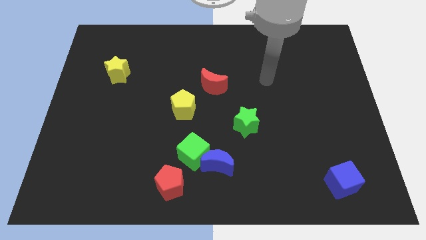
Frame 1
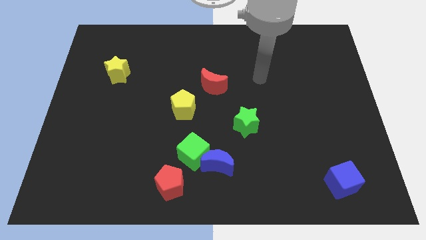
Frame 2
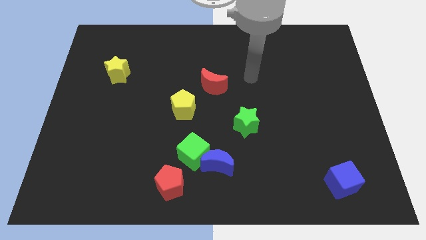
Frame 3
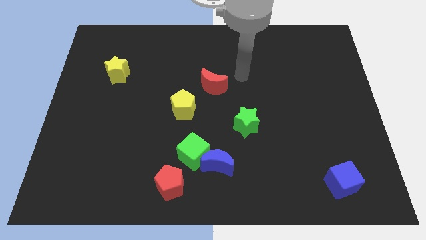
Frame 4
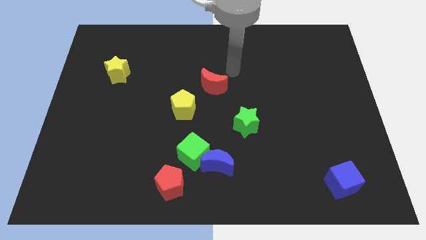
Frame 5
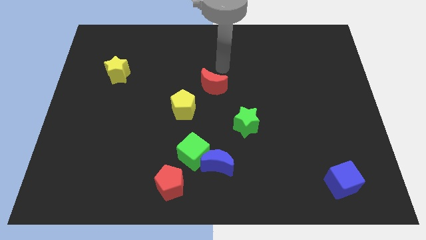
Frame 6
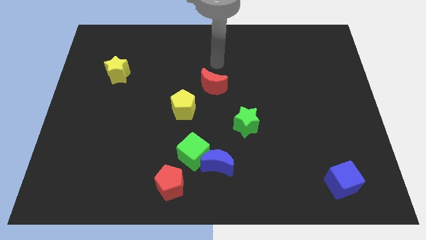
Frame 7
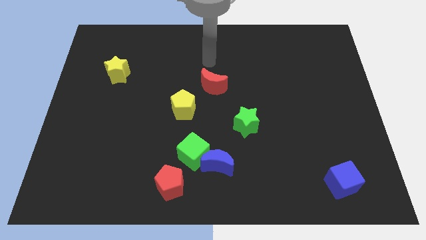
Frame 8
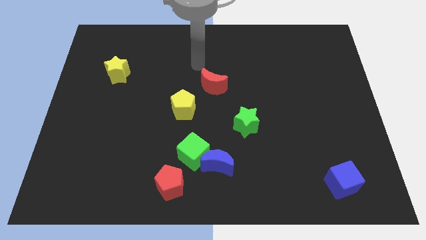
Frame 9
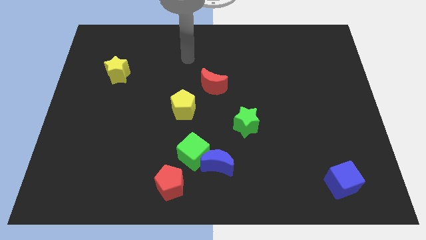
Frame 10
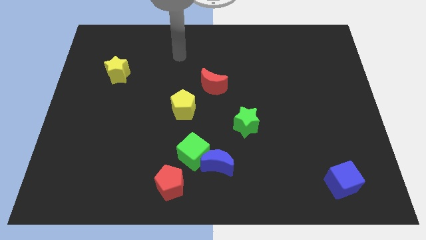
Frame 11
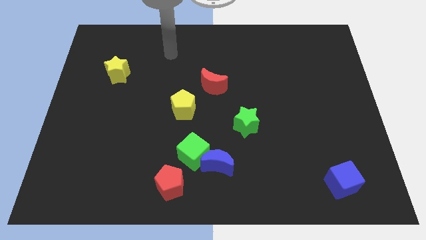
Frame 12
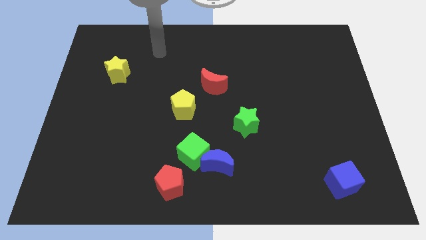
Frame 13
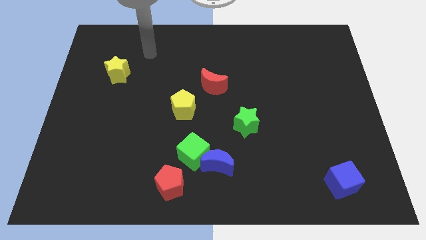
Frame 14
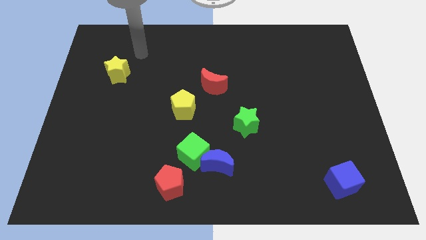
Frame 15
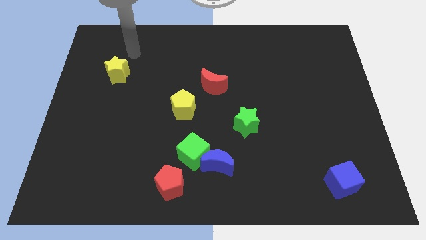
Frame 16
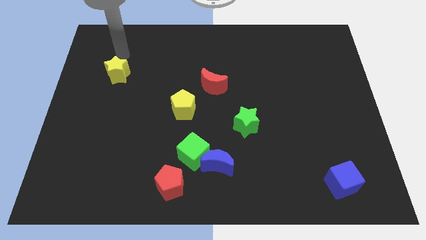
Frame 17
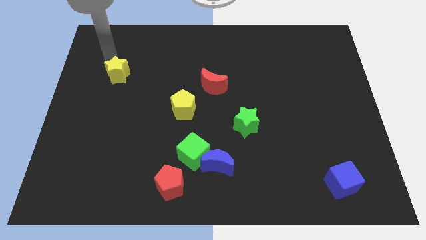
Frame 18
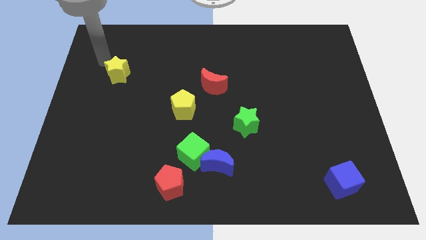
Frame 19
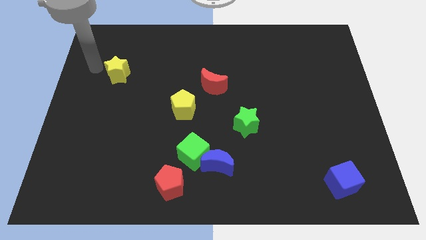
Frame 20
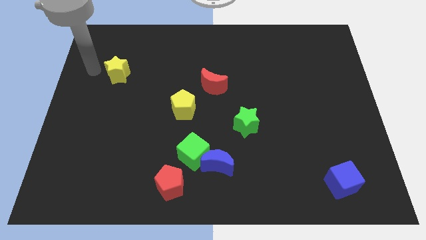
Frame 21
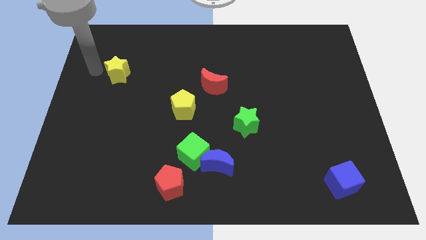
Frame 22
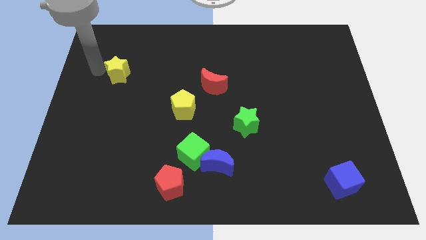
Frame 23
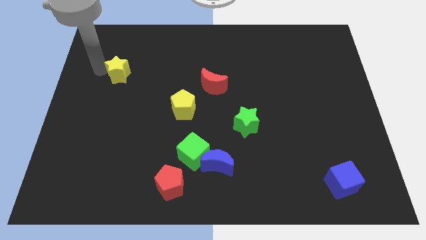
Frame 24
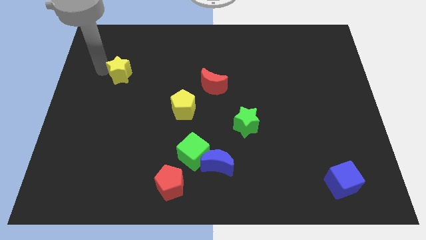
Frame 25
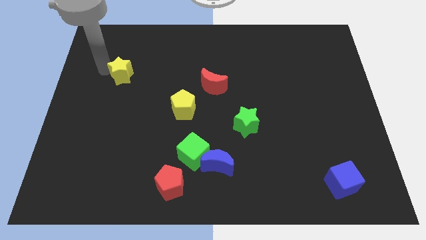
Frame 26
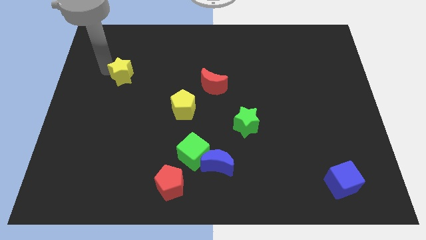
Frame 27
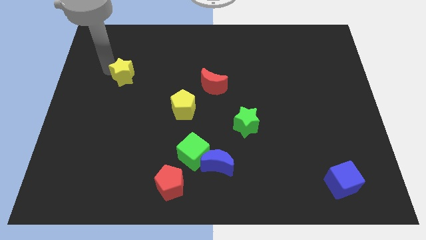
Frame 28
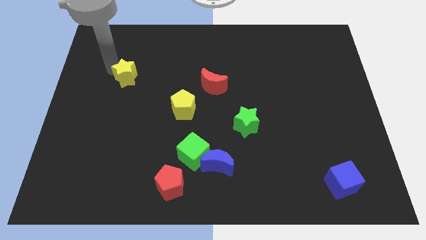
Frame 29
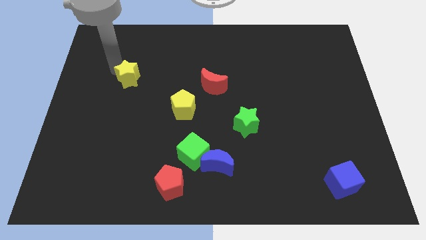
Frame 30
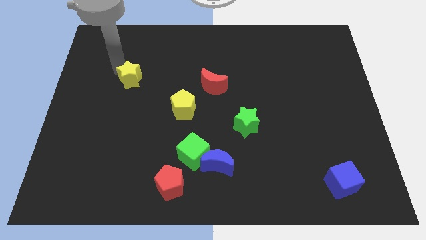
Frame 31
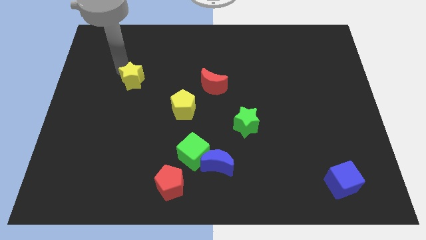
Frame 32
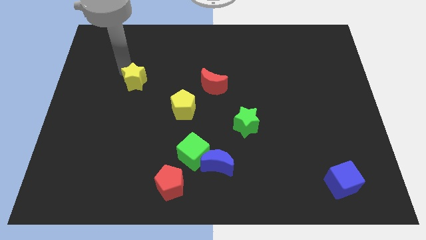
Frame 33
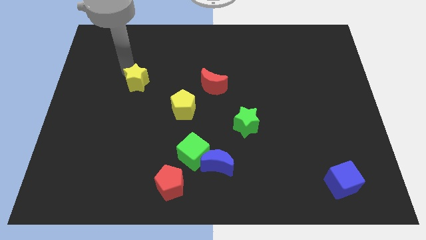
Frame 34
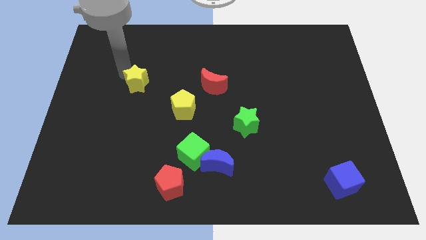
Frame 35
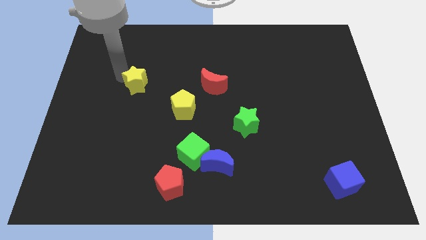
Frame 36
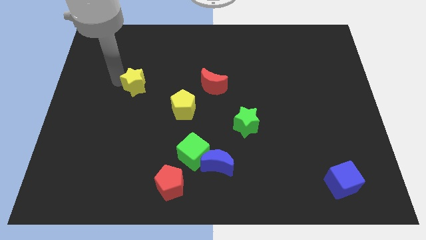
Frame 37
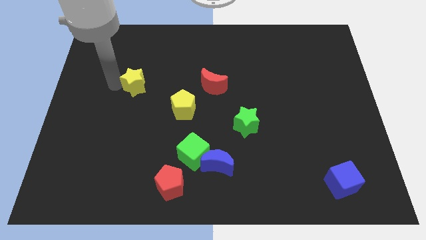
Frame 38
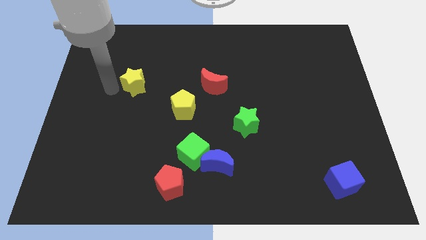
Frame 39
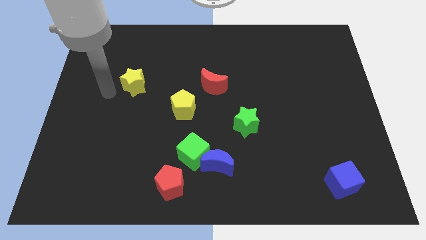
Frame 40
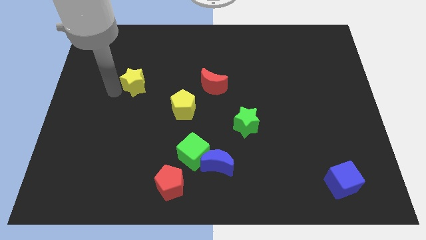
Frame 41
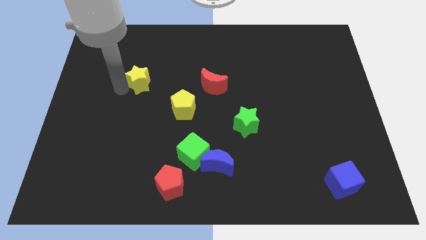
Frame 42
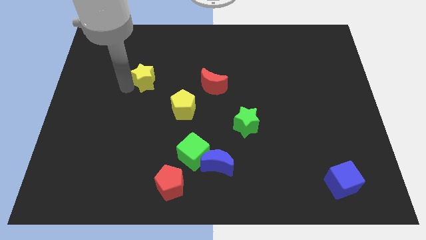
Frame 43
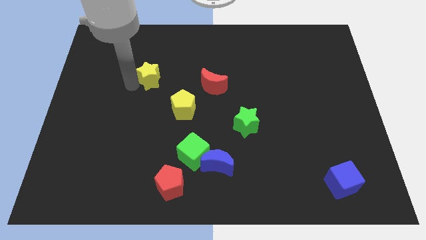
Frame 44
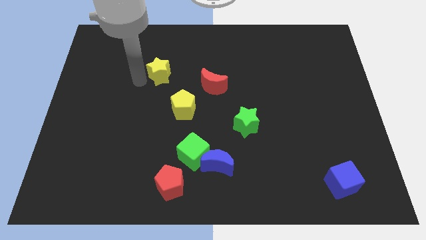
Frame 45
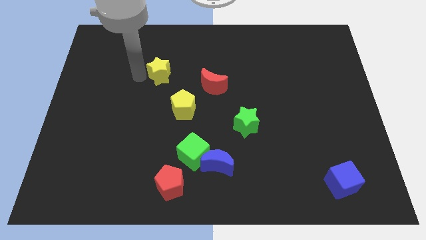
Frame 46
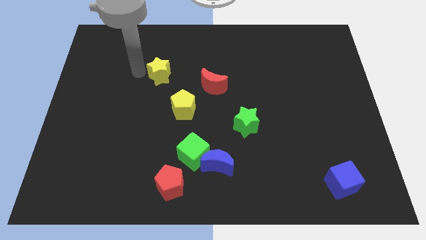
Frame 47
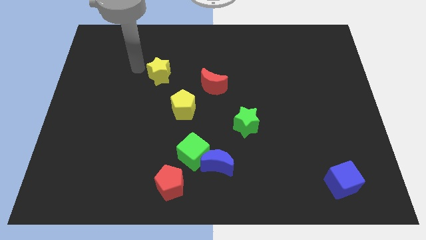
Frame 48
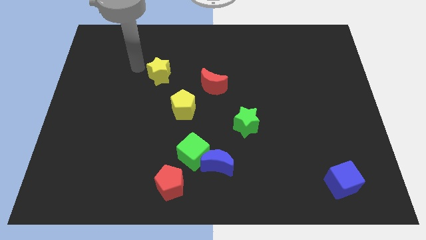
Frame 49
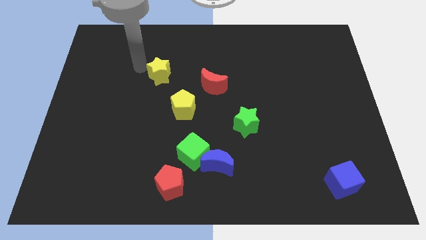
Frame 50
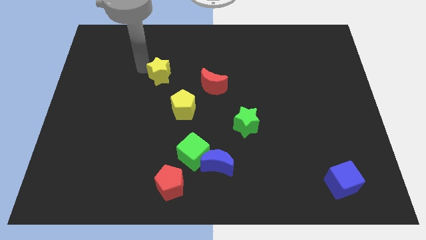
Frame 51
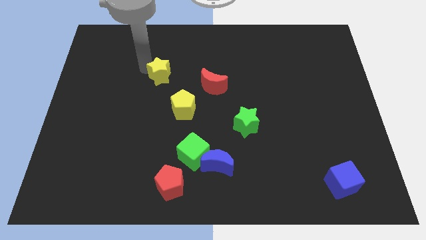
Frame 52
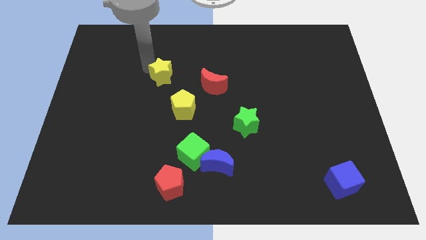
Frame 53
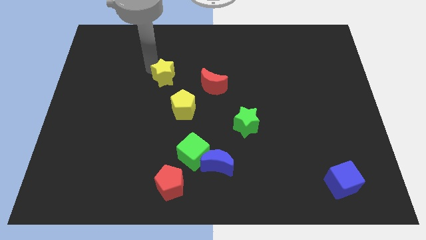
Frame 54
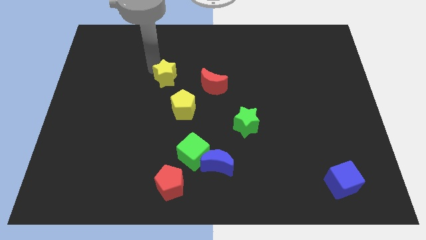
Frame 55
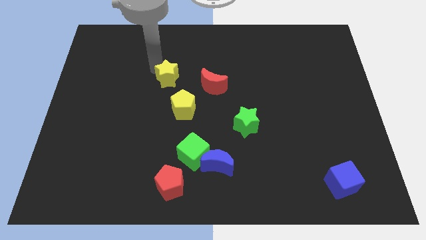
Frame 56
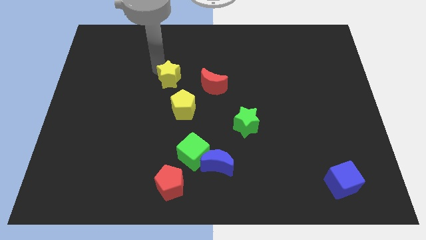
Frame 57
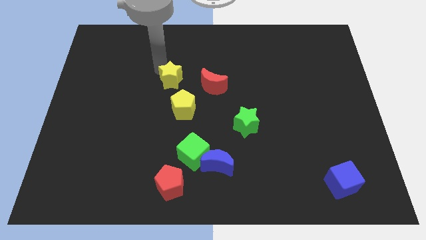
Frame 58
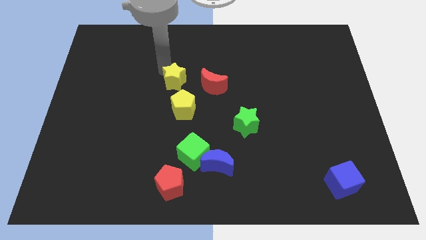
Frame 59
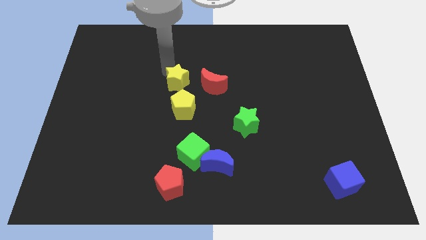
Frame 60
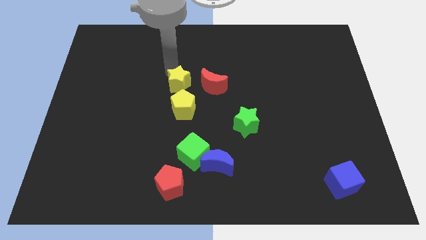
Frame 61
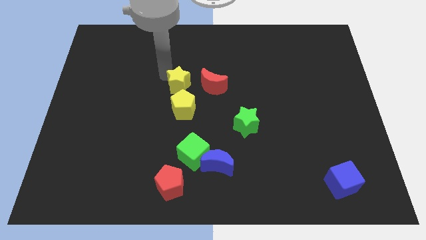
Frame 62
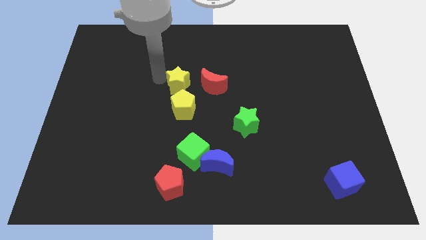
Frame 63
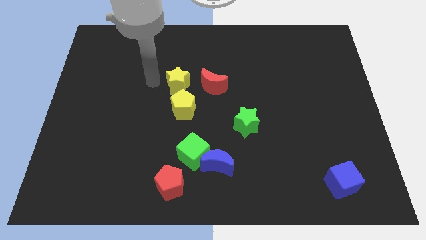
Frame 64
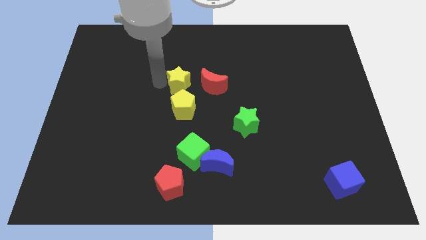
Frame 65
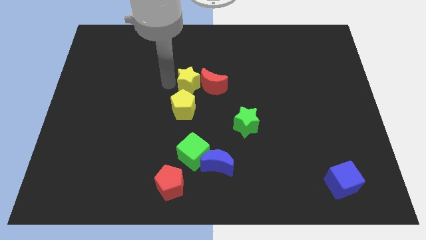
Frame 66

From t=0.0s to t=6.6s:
put the yellow star next to the red moon
